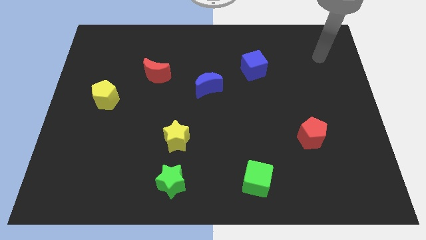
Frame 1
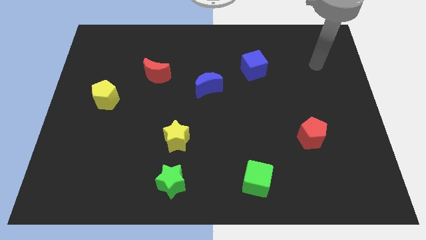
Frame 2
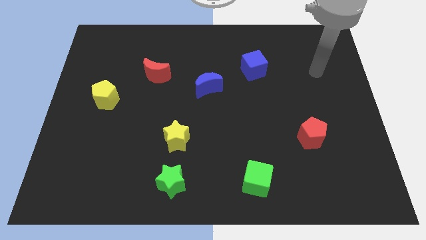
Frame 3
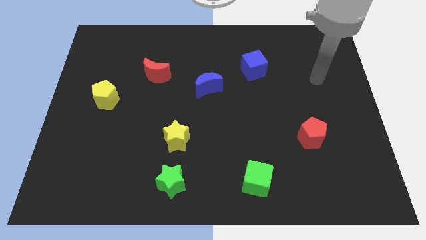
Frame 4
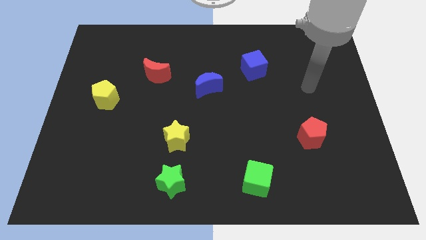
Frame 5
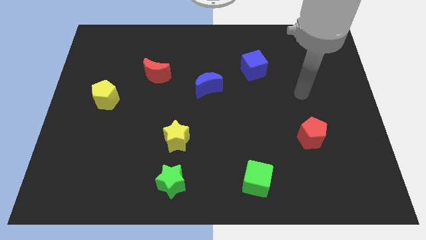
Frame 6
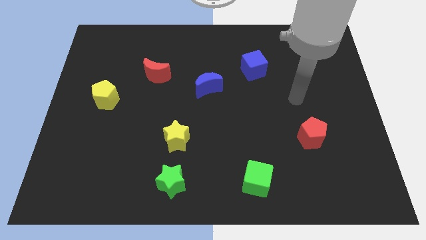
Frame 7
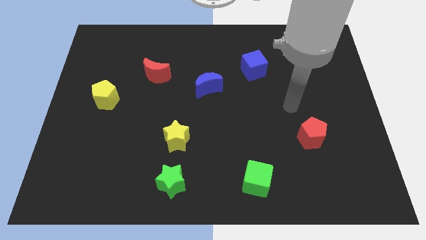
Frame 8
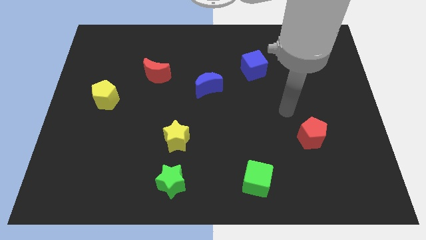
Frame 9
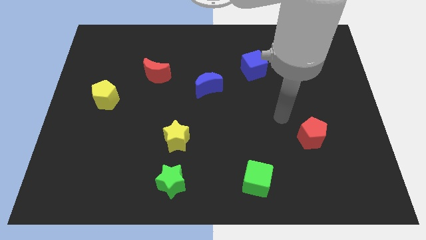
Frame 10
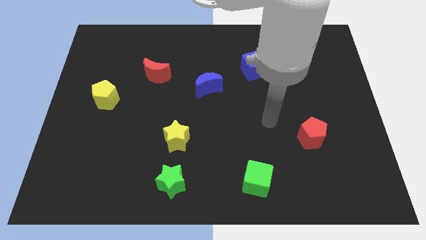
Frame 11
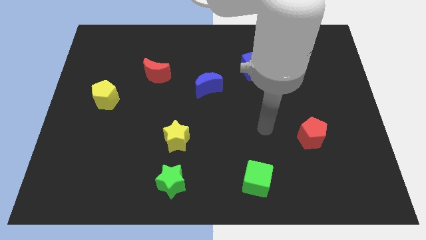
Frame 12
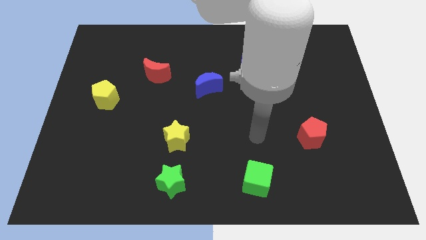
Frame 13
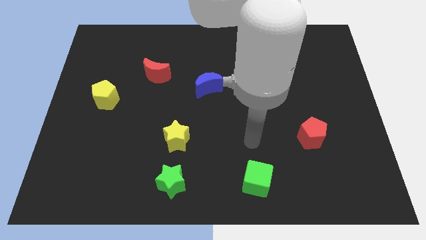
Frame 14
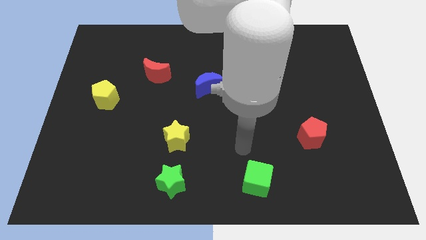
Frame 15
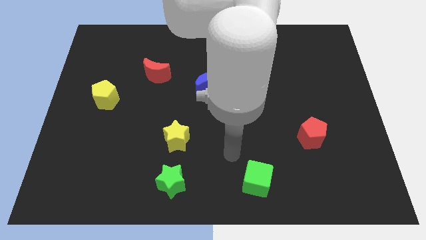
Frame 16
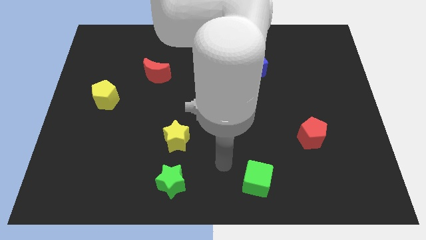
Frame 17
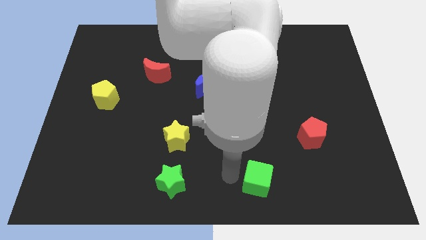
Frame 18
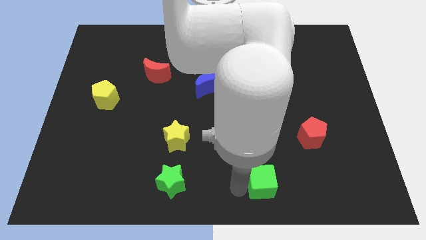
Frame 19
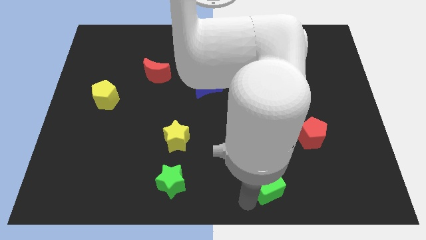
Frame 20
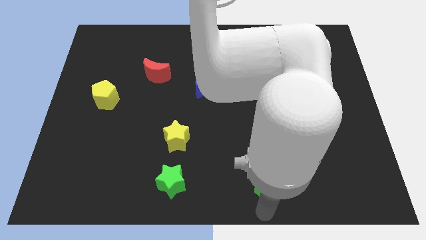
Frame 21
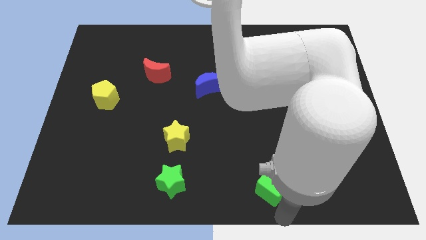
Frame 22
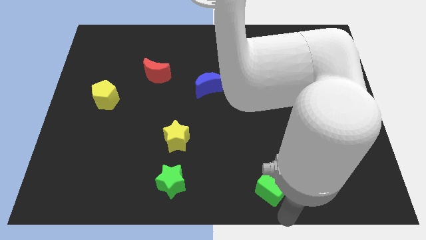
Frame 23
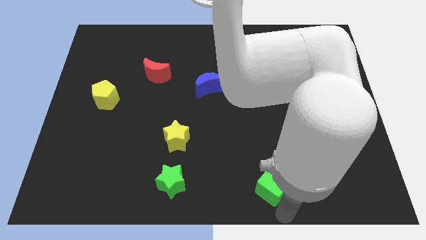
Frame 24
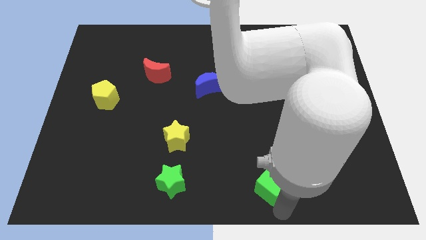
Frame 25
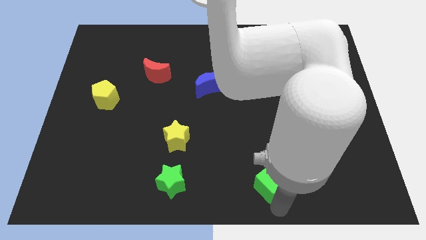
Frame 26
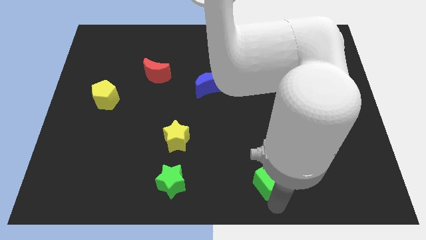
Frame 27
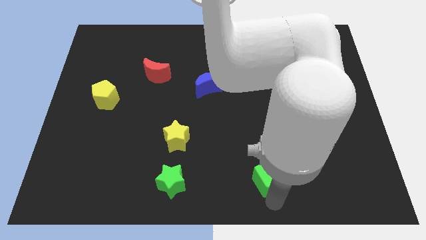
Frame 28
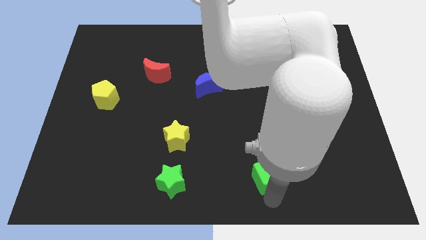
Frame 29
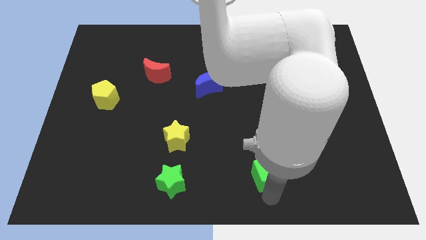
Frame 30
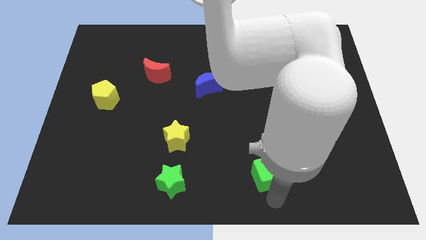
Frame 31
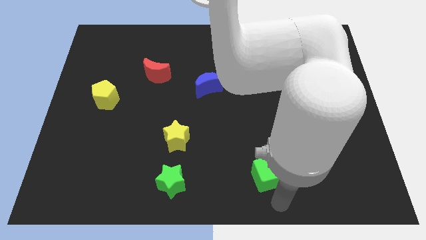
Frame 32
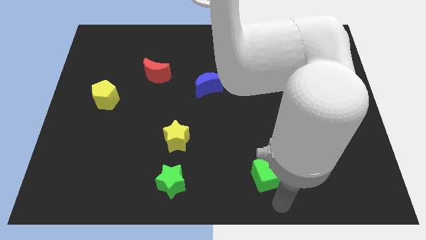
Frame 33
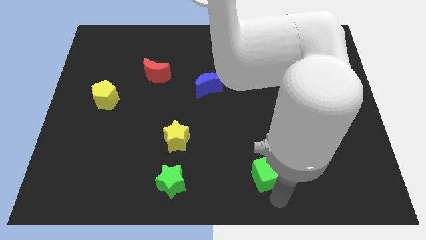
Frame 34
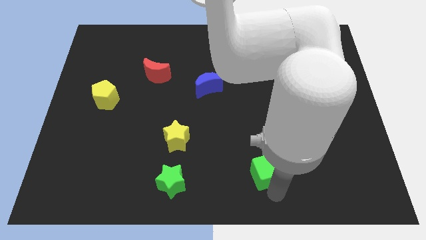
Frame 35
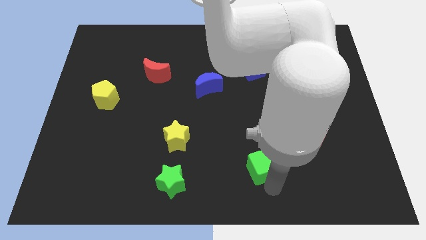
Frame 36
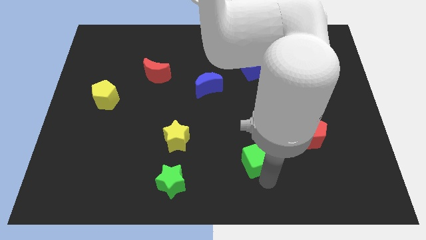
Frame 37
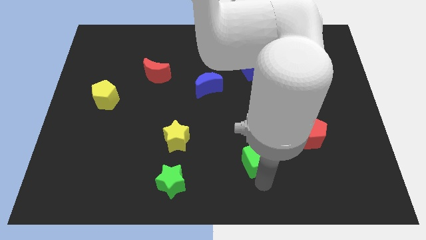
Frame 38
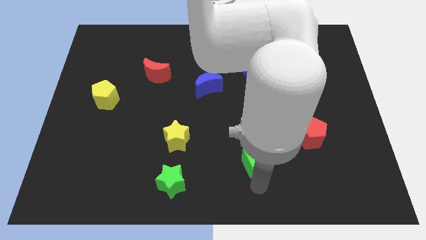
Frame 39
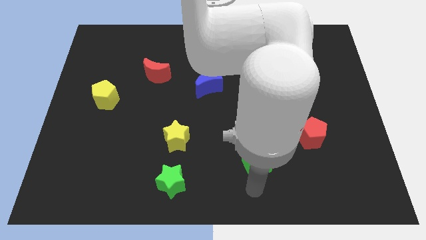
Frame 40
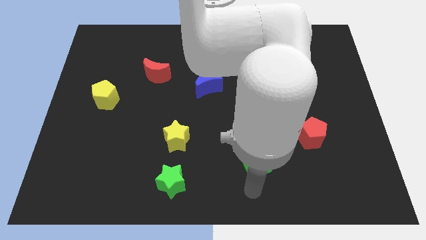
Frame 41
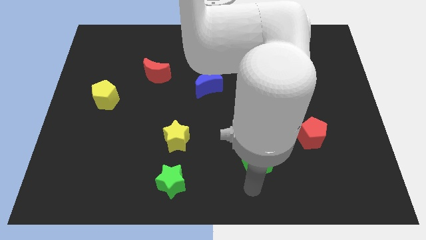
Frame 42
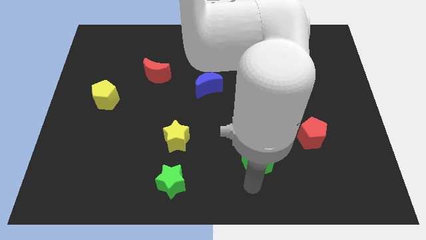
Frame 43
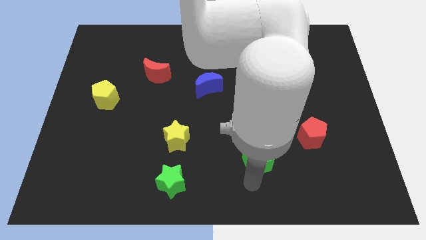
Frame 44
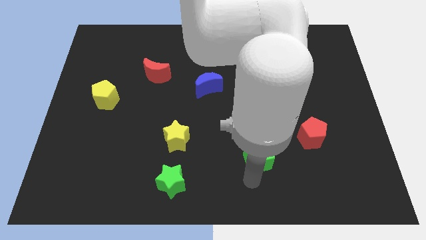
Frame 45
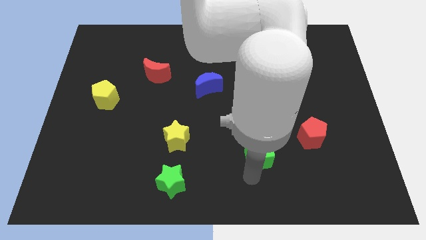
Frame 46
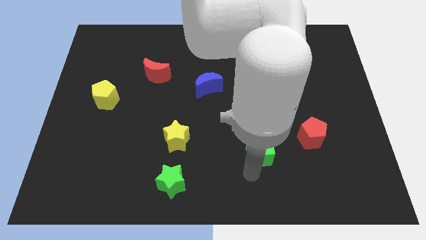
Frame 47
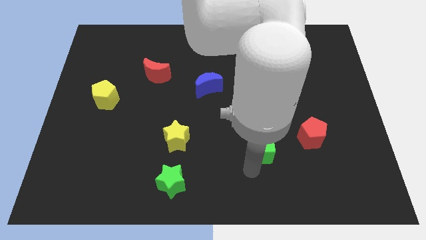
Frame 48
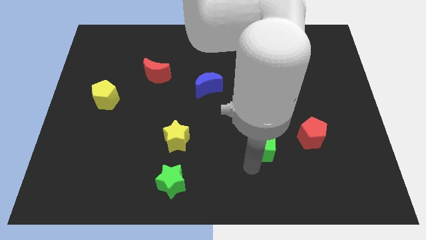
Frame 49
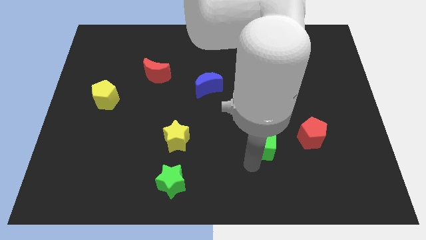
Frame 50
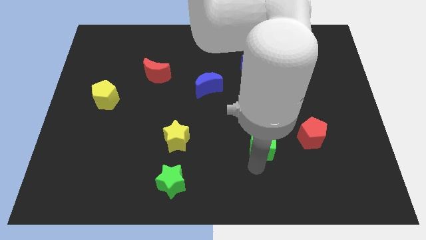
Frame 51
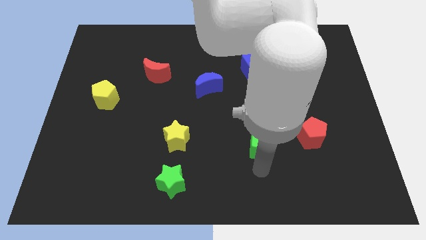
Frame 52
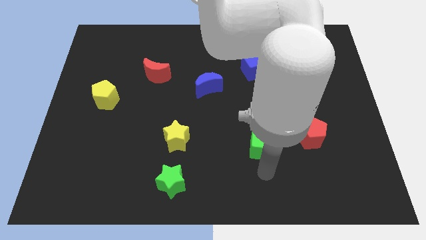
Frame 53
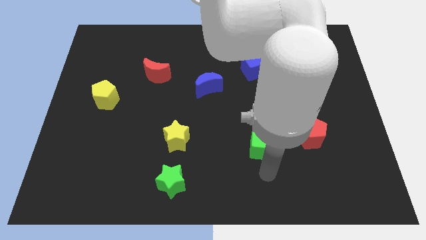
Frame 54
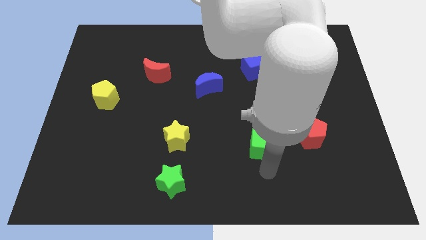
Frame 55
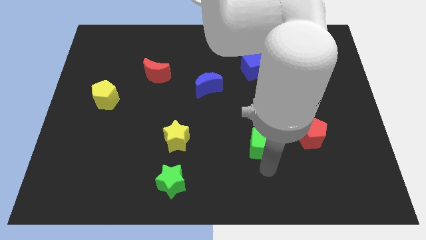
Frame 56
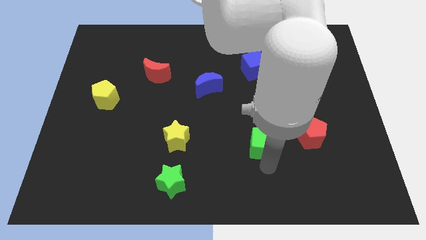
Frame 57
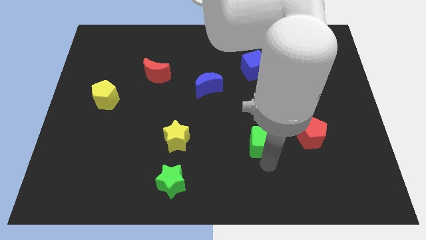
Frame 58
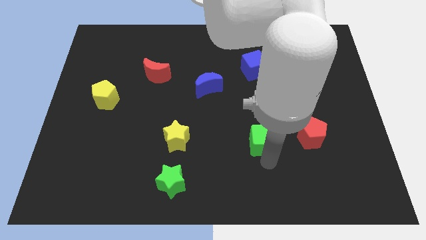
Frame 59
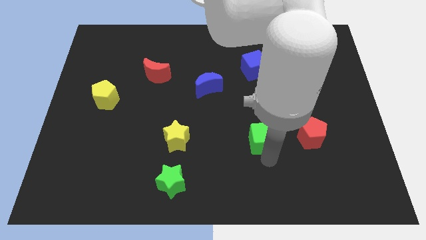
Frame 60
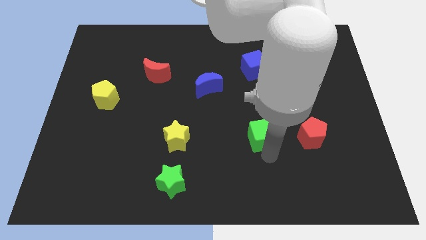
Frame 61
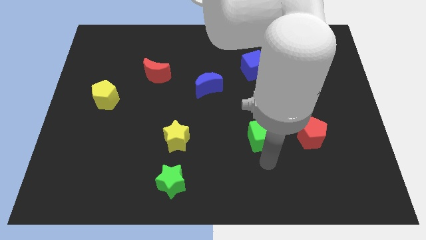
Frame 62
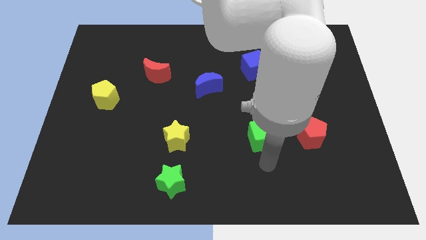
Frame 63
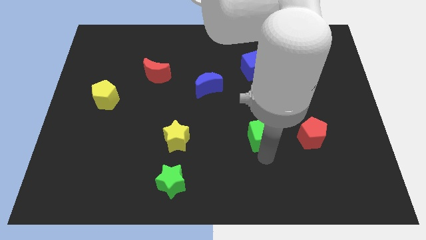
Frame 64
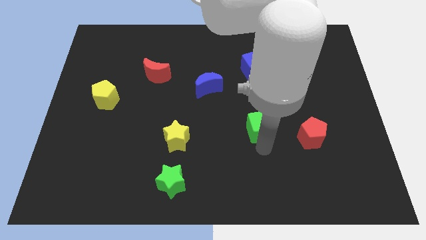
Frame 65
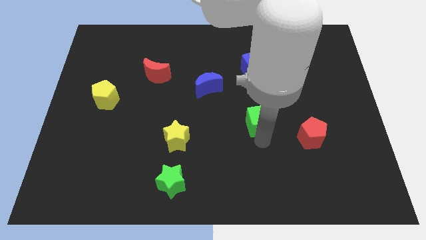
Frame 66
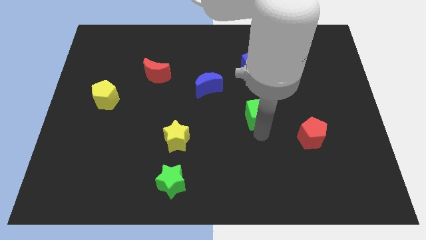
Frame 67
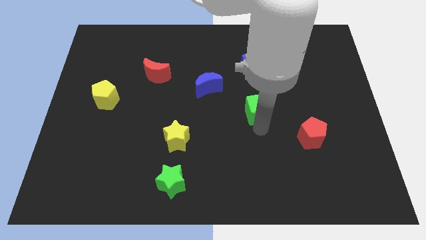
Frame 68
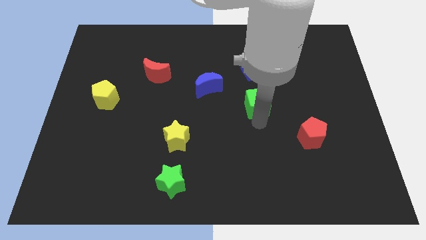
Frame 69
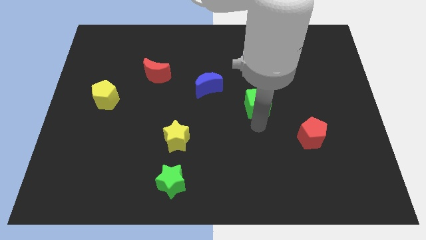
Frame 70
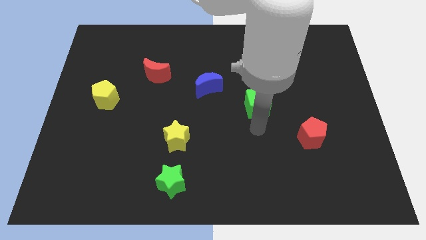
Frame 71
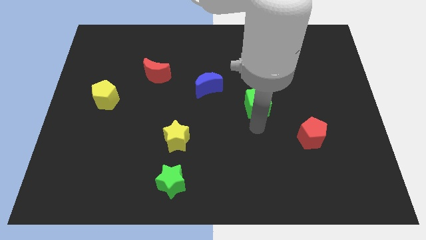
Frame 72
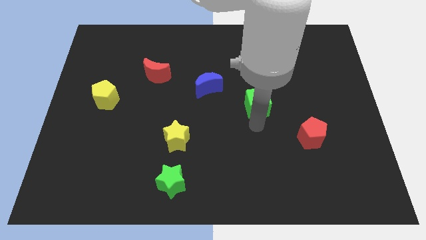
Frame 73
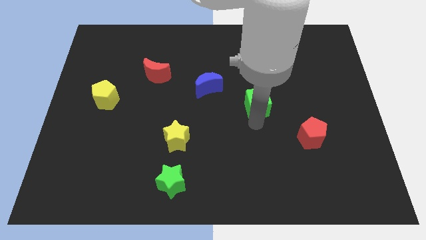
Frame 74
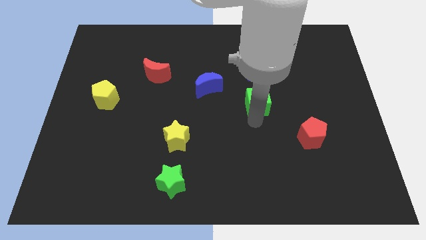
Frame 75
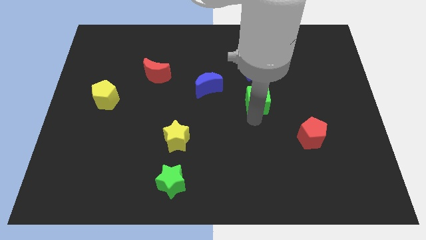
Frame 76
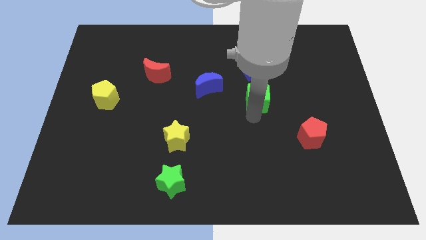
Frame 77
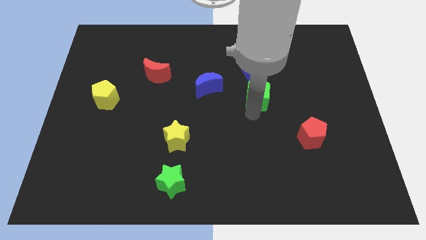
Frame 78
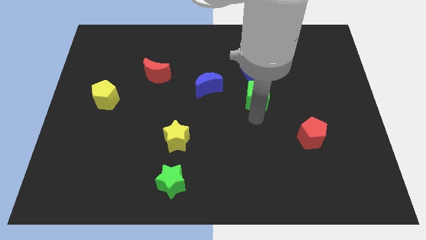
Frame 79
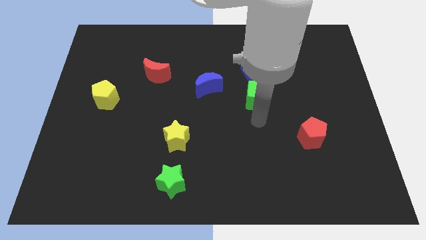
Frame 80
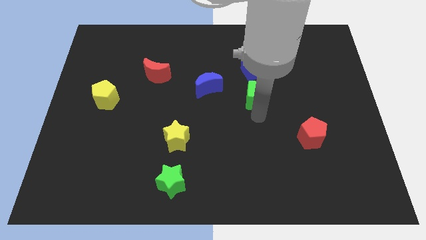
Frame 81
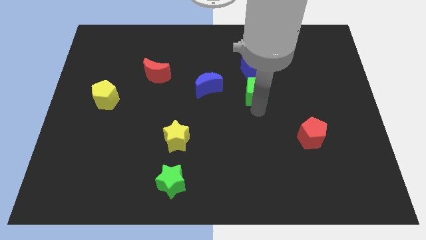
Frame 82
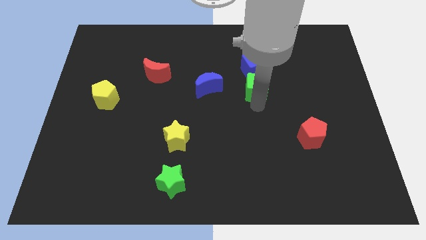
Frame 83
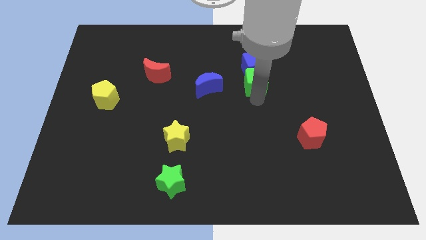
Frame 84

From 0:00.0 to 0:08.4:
move the green cube close to the blue cube
